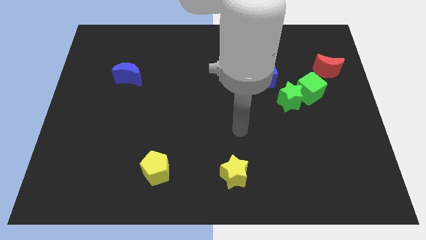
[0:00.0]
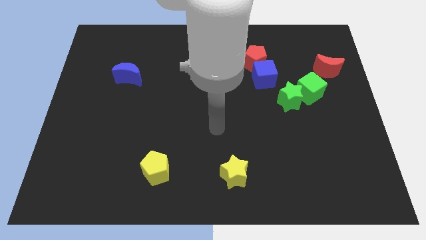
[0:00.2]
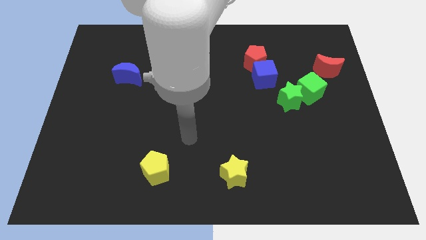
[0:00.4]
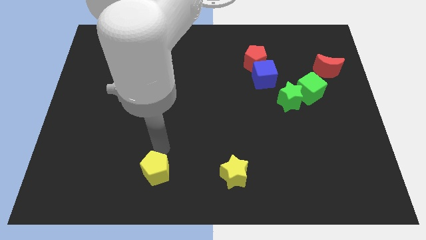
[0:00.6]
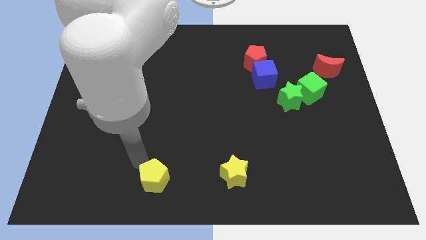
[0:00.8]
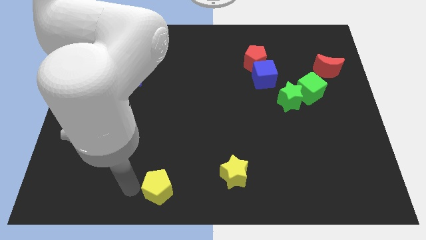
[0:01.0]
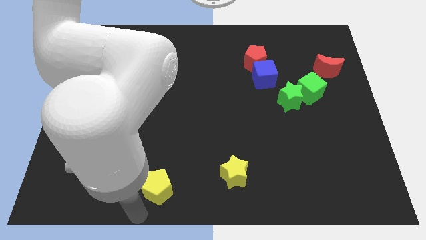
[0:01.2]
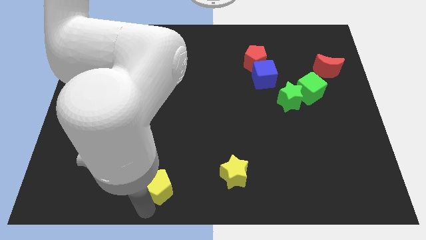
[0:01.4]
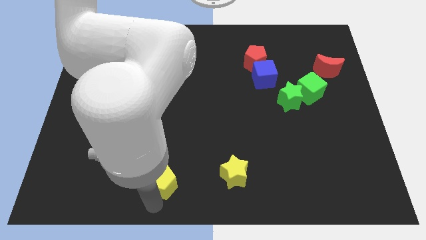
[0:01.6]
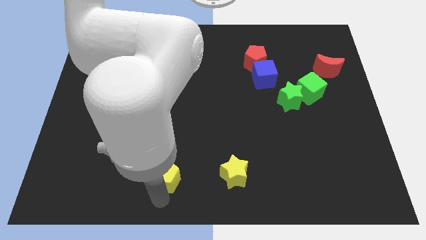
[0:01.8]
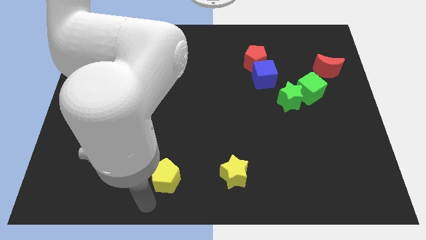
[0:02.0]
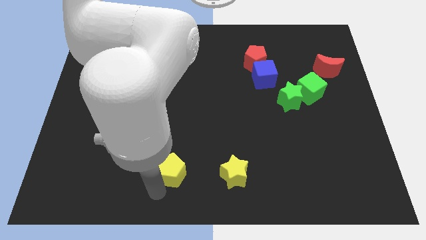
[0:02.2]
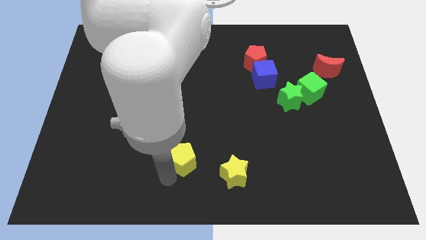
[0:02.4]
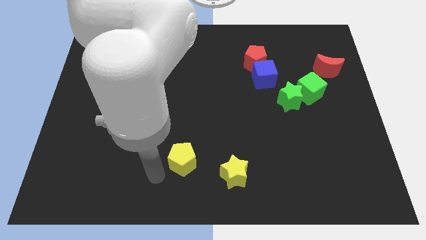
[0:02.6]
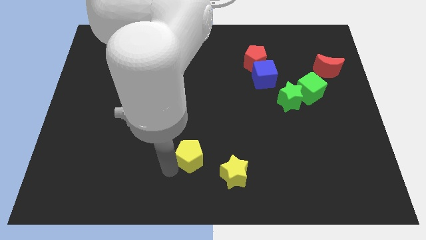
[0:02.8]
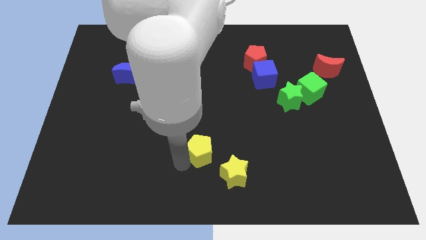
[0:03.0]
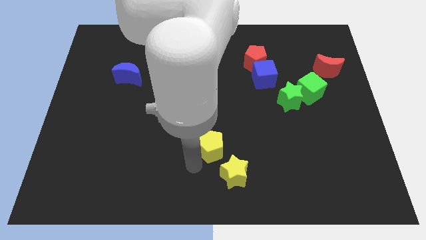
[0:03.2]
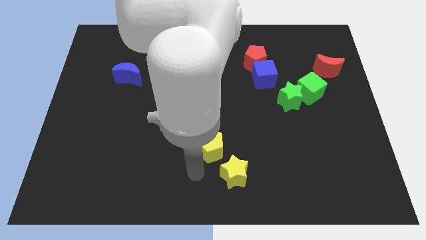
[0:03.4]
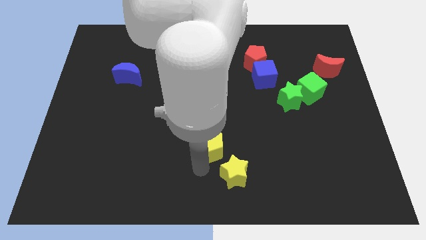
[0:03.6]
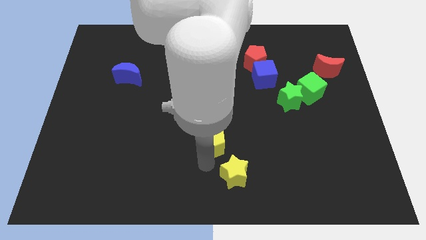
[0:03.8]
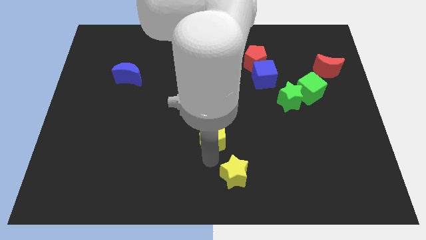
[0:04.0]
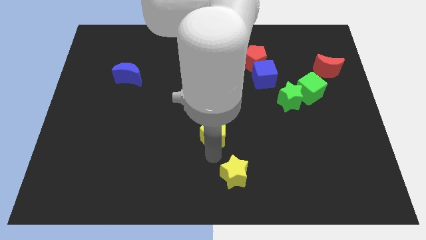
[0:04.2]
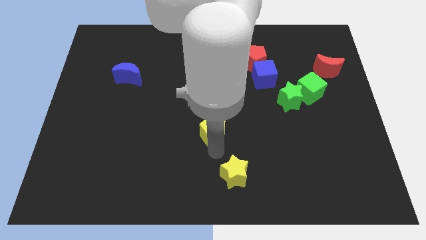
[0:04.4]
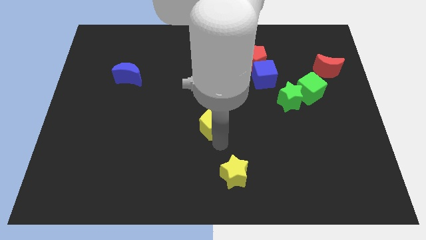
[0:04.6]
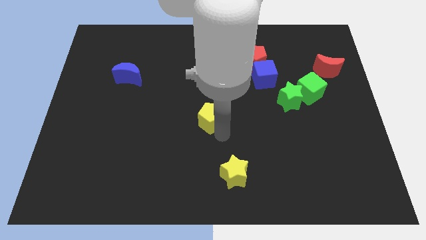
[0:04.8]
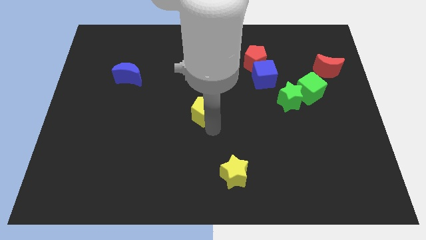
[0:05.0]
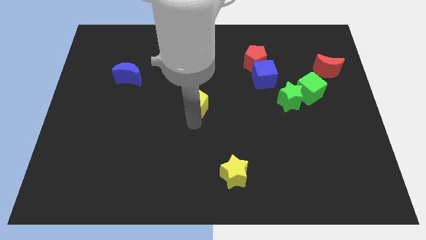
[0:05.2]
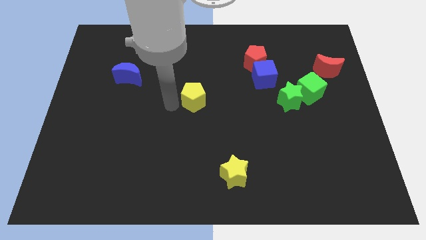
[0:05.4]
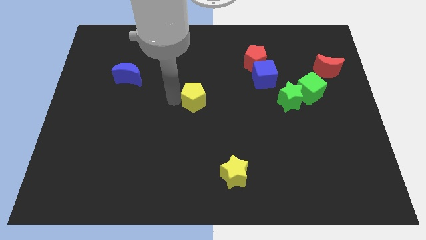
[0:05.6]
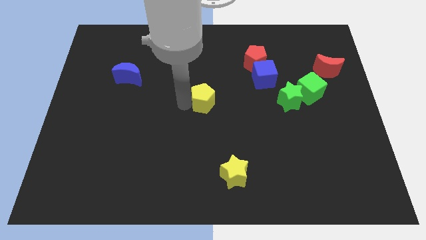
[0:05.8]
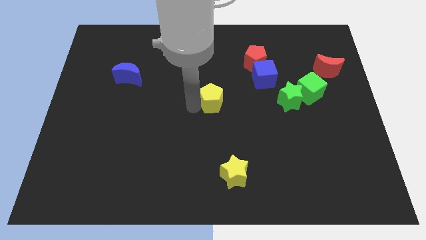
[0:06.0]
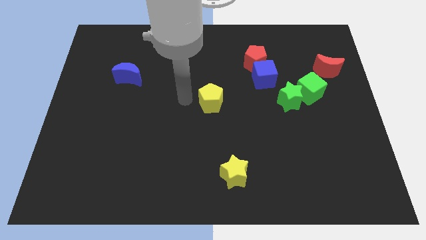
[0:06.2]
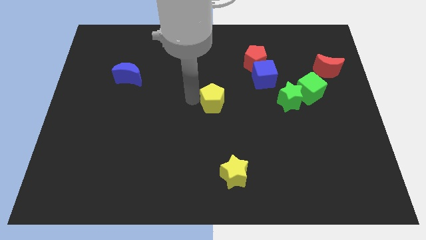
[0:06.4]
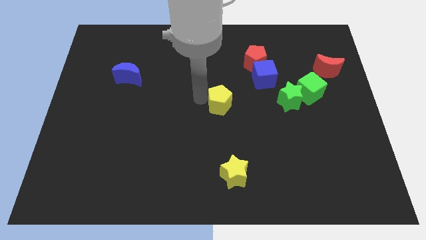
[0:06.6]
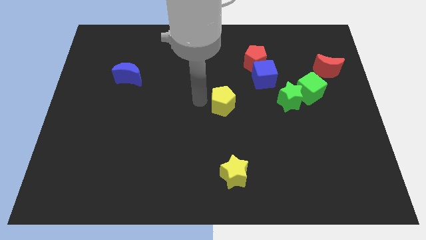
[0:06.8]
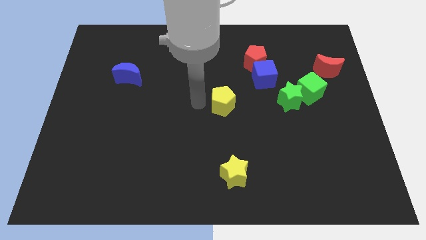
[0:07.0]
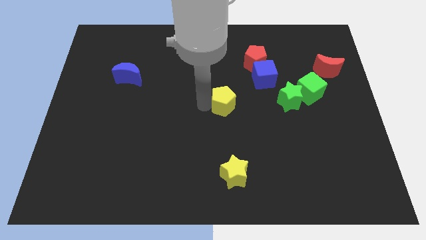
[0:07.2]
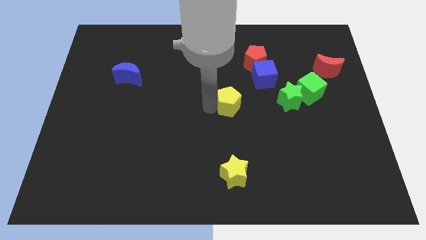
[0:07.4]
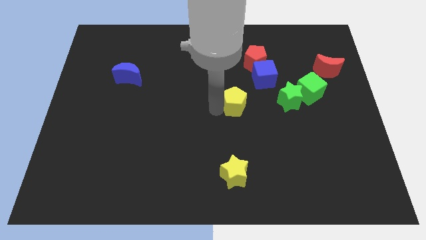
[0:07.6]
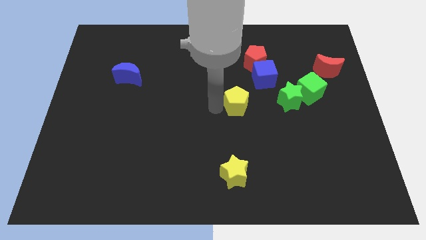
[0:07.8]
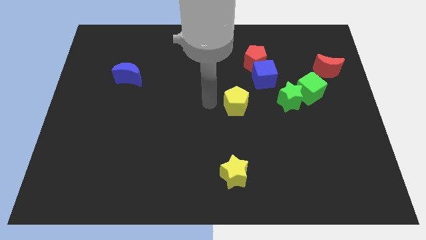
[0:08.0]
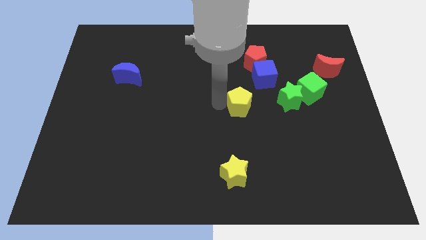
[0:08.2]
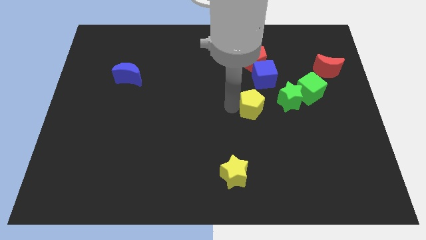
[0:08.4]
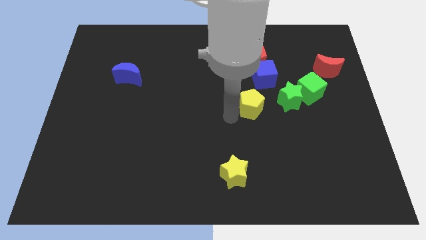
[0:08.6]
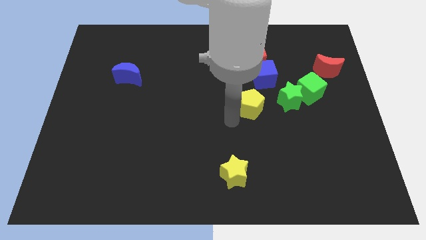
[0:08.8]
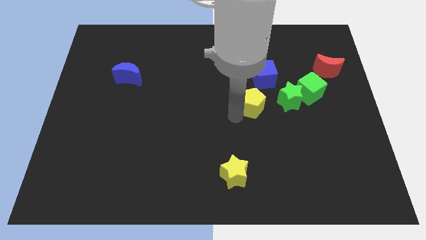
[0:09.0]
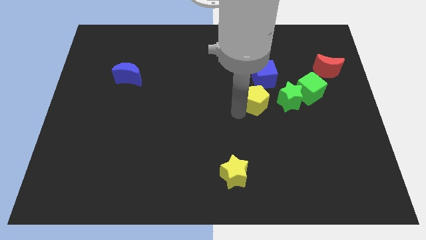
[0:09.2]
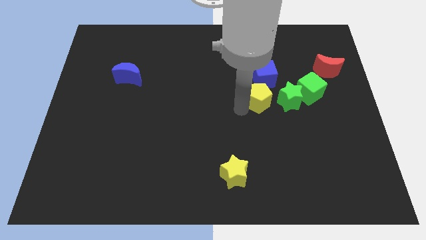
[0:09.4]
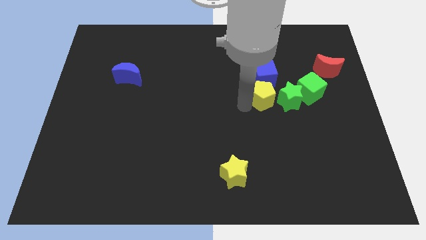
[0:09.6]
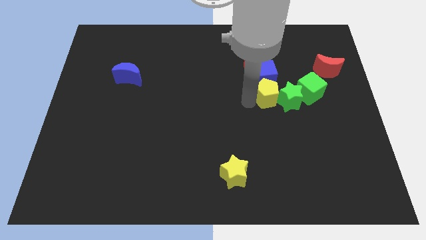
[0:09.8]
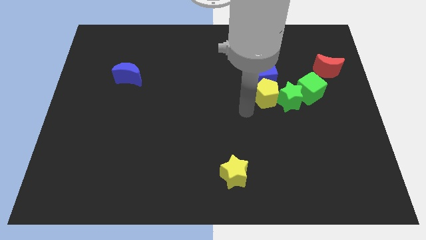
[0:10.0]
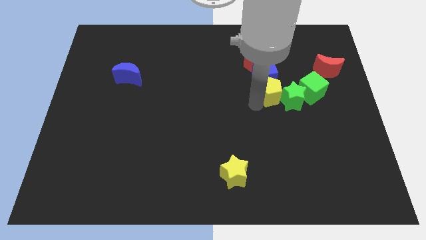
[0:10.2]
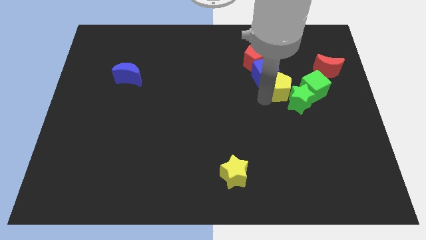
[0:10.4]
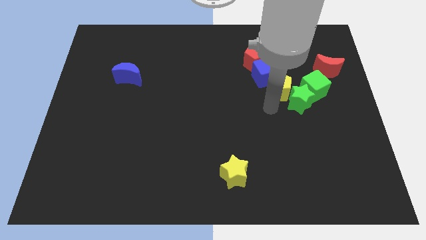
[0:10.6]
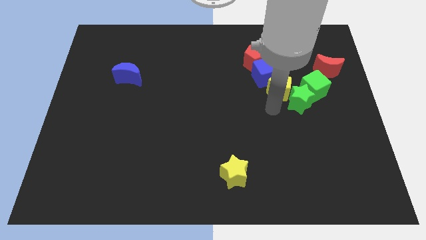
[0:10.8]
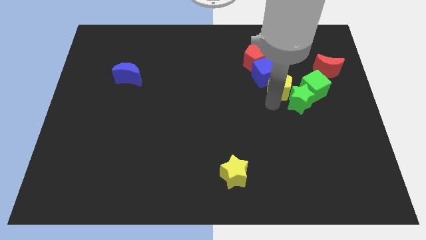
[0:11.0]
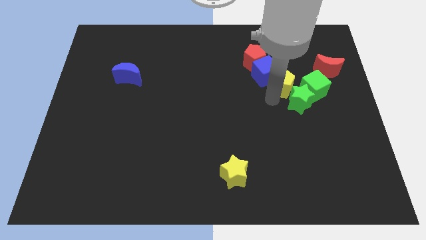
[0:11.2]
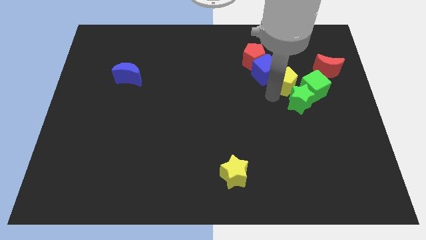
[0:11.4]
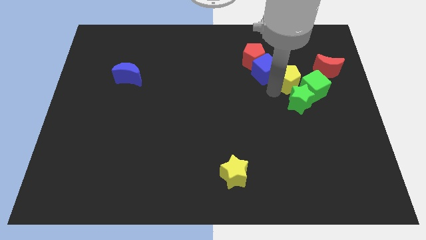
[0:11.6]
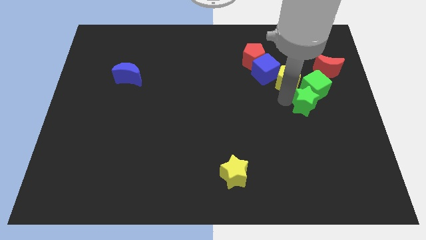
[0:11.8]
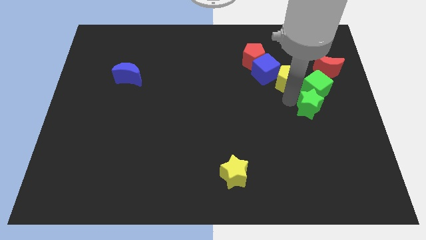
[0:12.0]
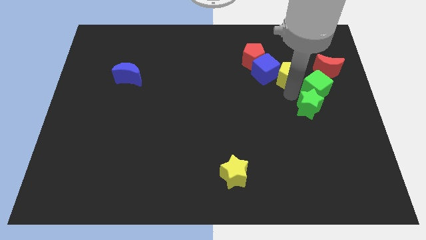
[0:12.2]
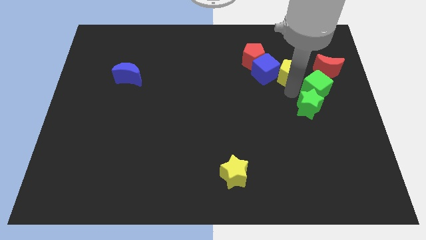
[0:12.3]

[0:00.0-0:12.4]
move the yellow pentagon diagonally up and to the right of the blue cube
